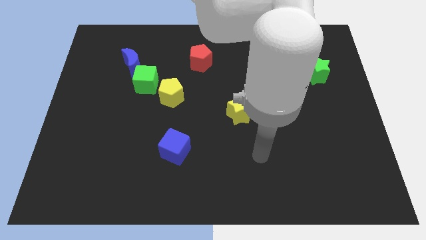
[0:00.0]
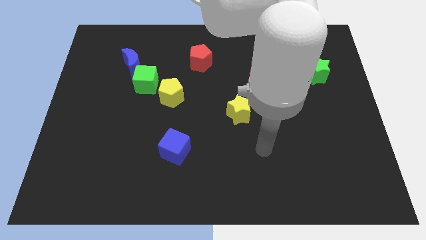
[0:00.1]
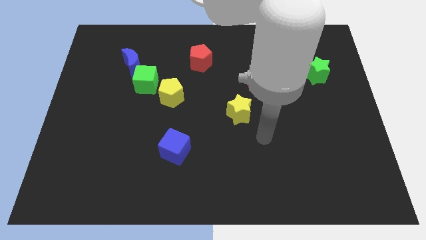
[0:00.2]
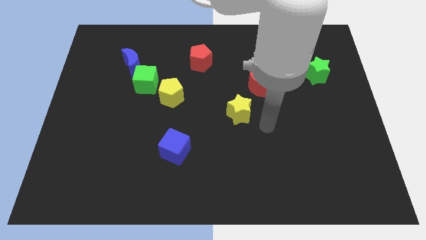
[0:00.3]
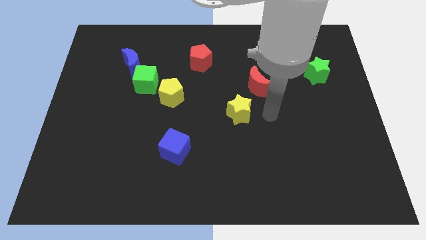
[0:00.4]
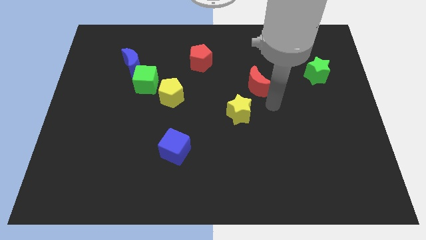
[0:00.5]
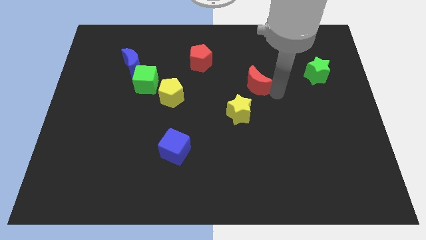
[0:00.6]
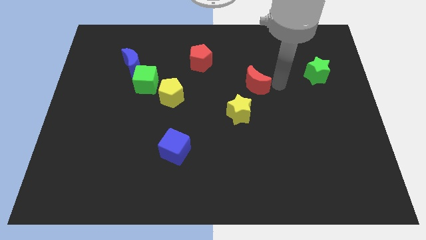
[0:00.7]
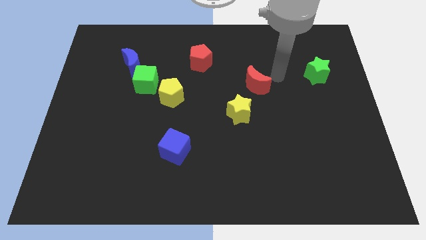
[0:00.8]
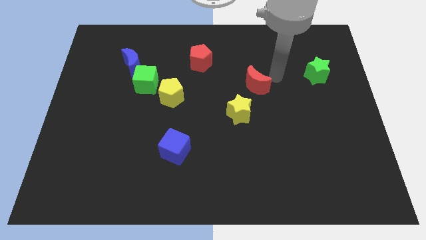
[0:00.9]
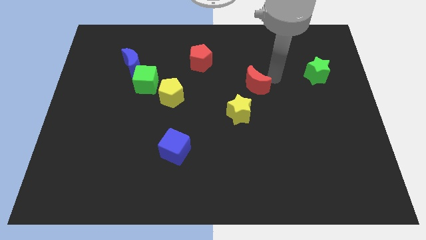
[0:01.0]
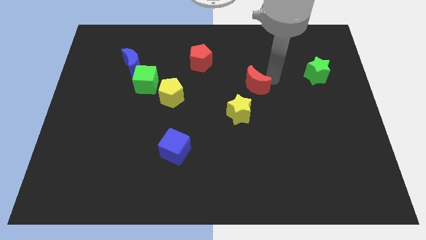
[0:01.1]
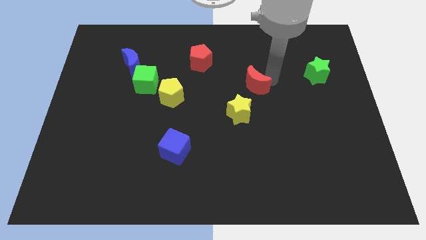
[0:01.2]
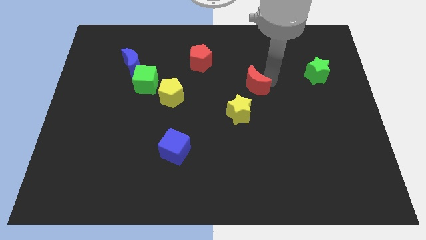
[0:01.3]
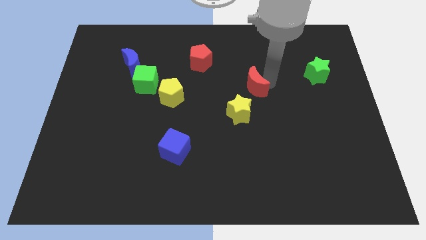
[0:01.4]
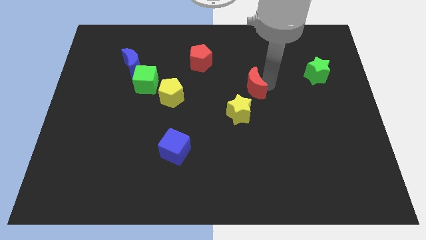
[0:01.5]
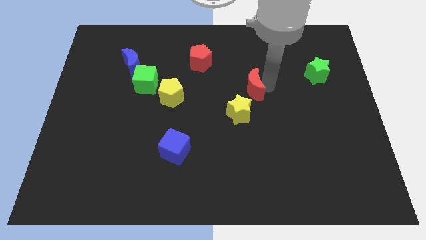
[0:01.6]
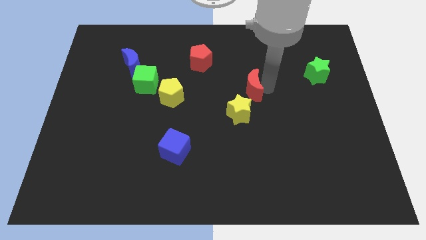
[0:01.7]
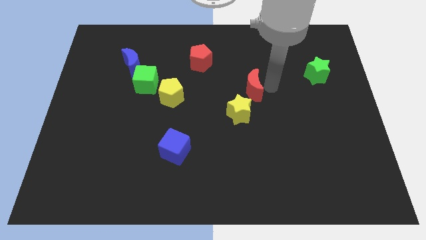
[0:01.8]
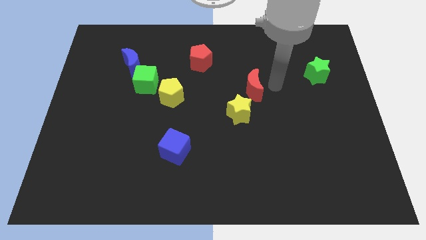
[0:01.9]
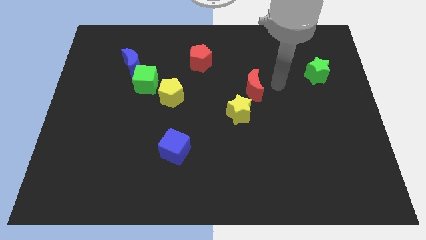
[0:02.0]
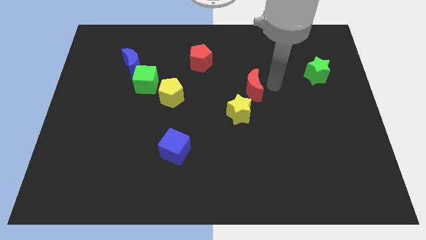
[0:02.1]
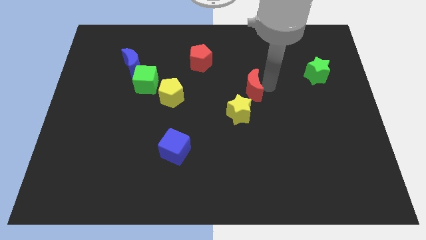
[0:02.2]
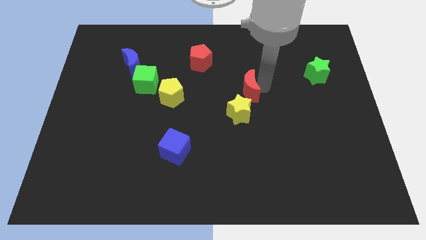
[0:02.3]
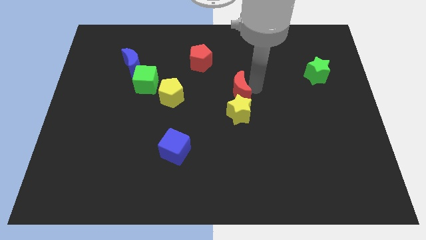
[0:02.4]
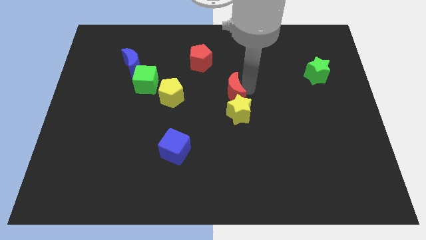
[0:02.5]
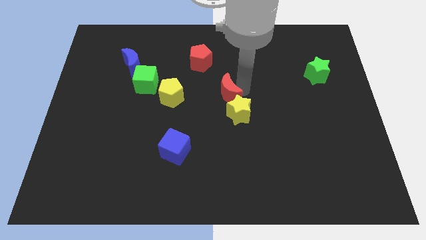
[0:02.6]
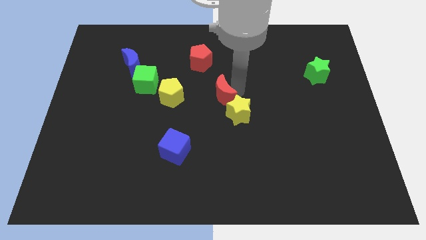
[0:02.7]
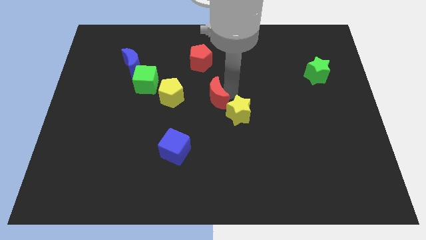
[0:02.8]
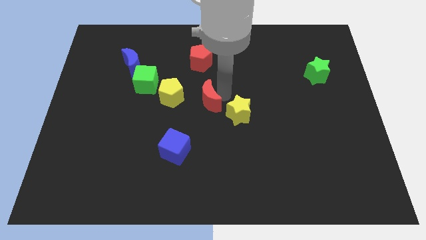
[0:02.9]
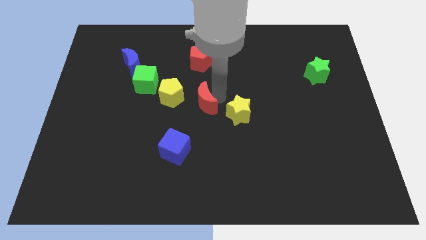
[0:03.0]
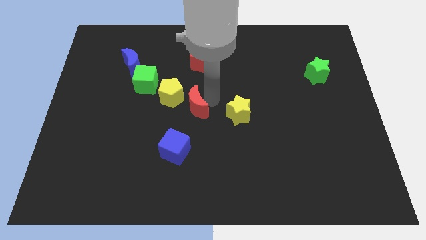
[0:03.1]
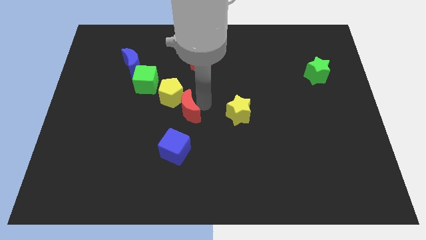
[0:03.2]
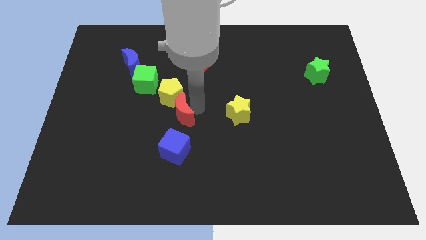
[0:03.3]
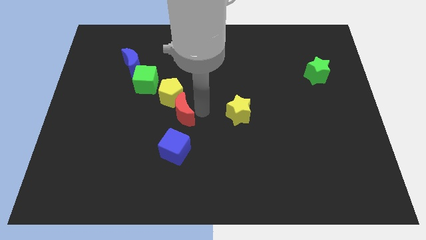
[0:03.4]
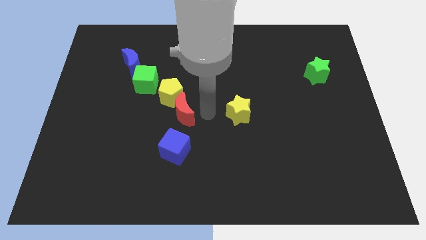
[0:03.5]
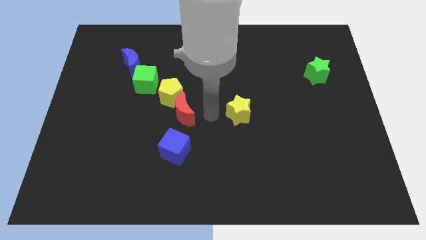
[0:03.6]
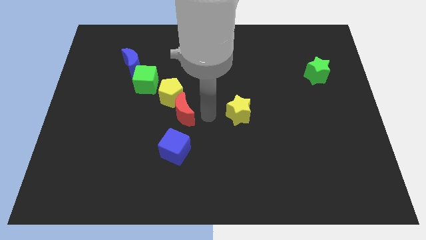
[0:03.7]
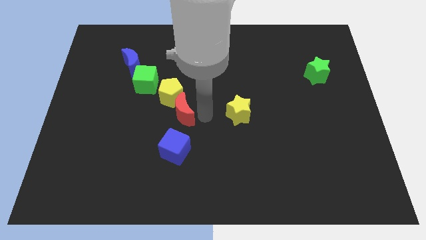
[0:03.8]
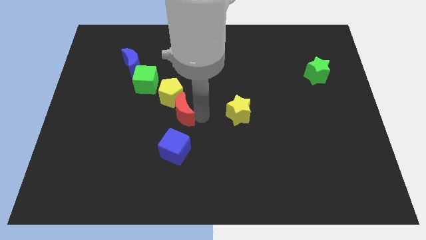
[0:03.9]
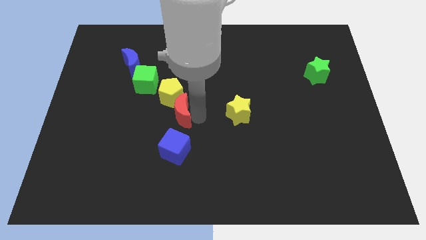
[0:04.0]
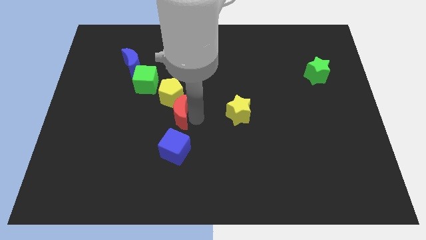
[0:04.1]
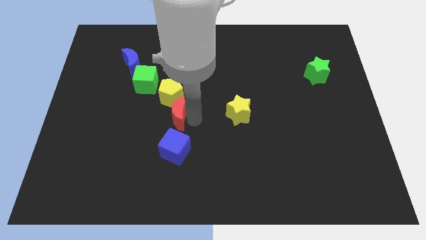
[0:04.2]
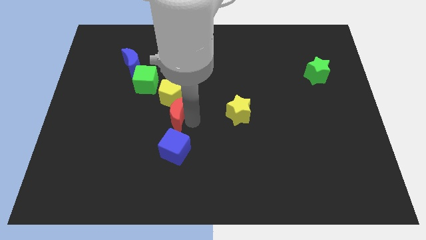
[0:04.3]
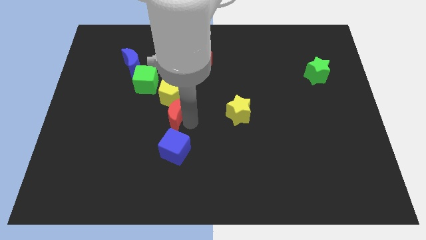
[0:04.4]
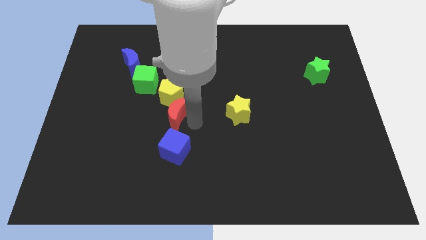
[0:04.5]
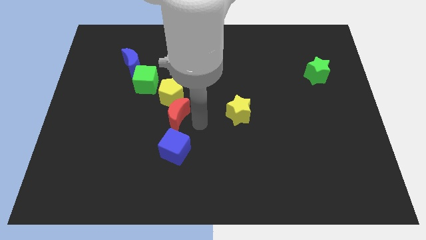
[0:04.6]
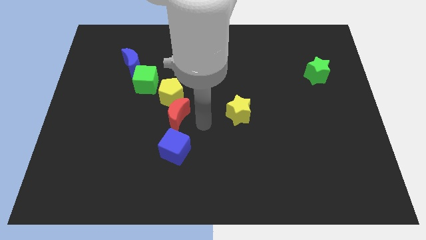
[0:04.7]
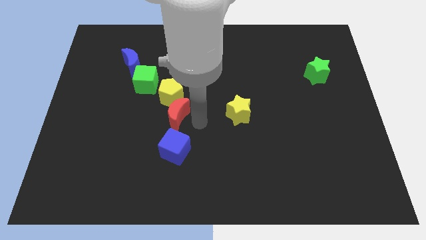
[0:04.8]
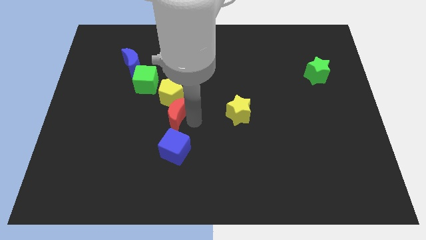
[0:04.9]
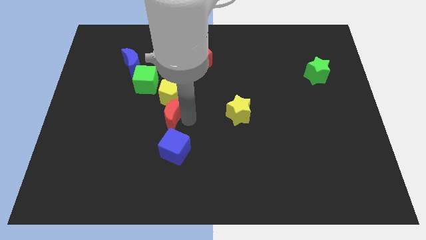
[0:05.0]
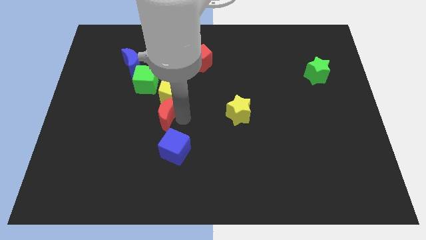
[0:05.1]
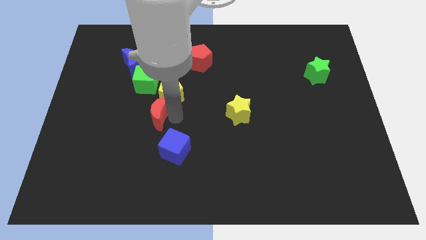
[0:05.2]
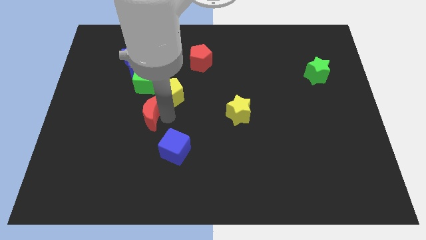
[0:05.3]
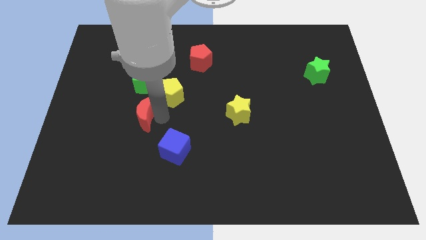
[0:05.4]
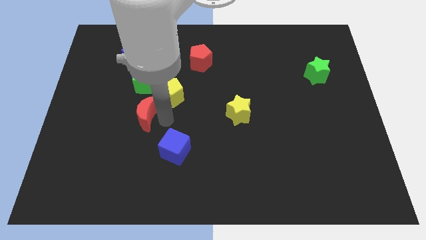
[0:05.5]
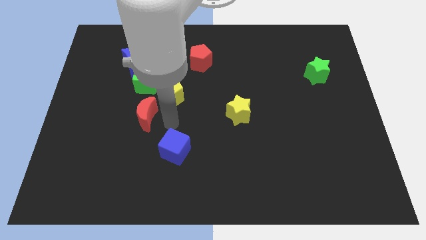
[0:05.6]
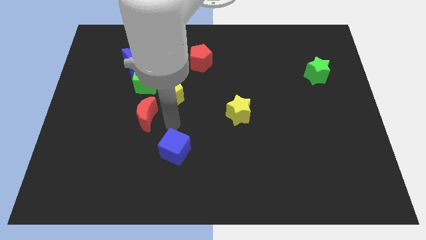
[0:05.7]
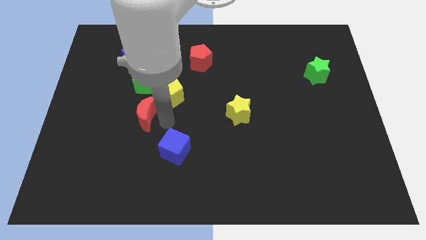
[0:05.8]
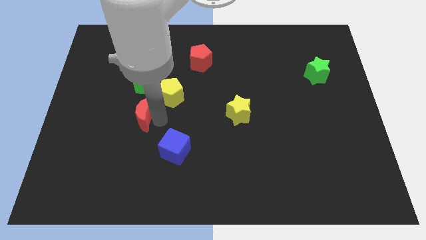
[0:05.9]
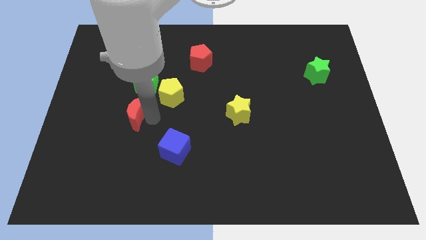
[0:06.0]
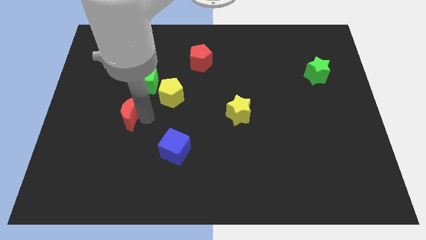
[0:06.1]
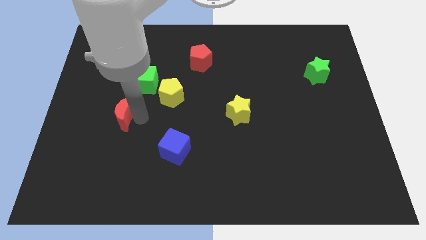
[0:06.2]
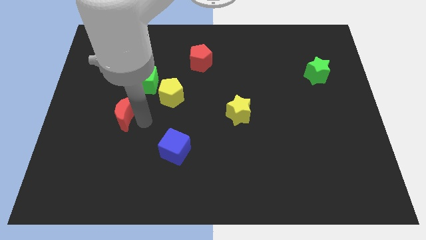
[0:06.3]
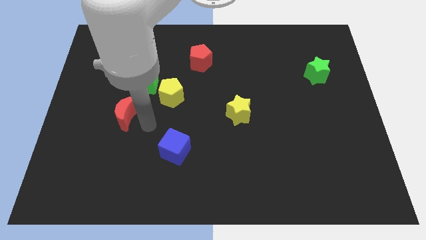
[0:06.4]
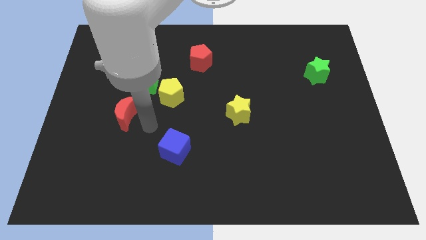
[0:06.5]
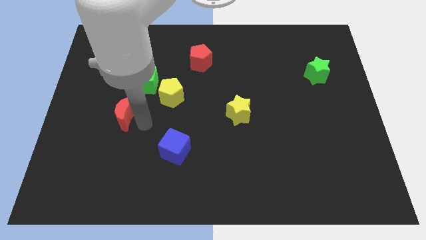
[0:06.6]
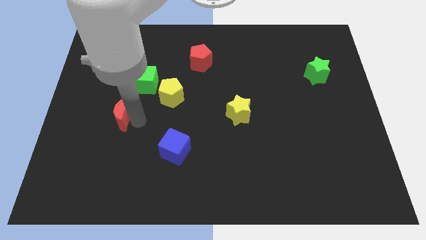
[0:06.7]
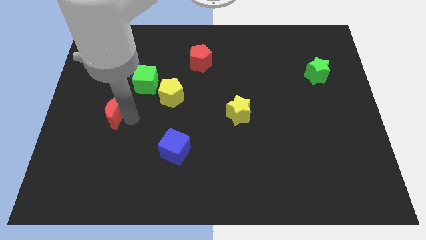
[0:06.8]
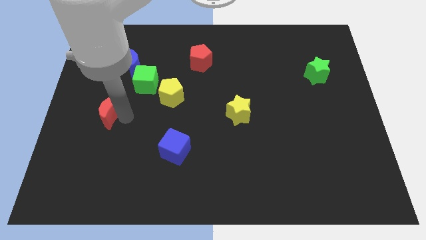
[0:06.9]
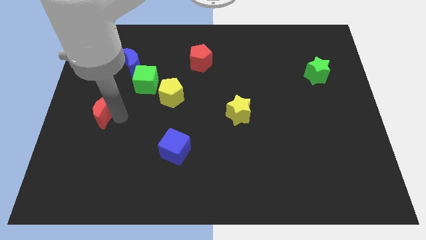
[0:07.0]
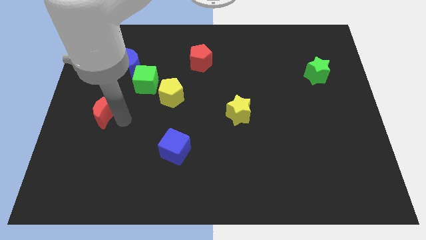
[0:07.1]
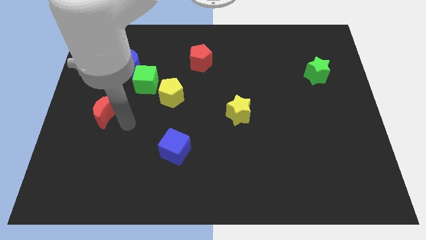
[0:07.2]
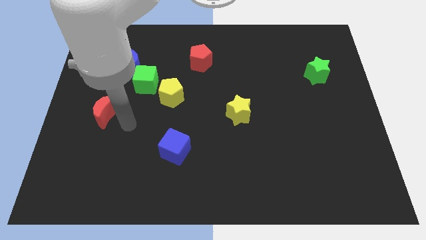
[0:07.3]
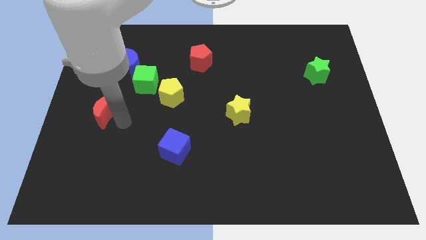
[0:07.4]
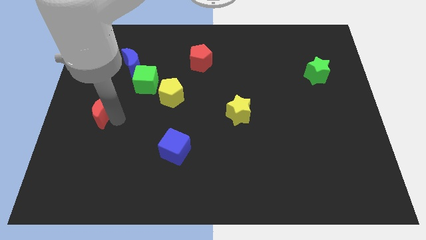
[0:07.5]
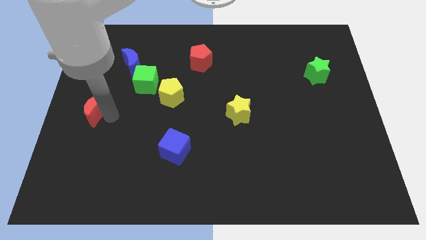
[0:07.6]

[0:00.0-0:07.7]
put the red moon to the center left
